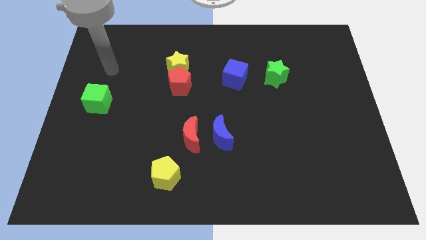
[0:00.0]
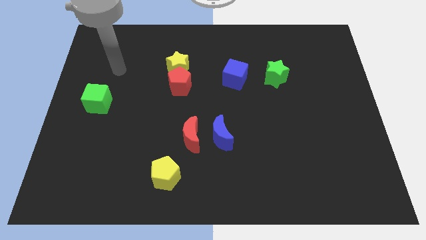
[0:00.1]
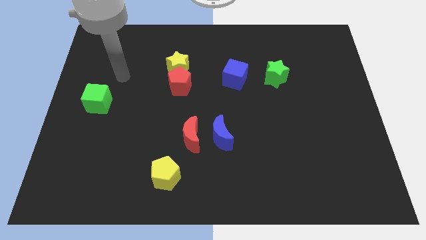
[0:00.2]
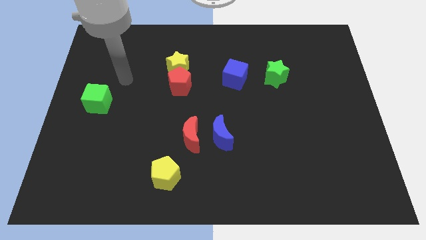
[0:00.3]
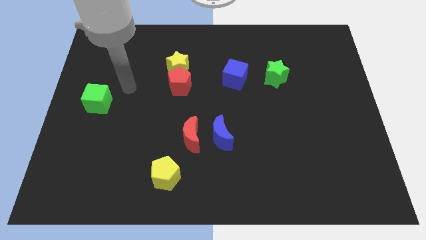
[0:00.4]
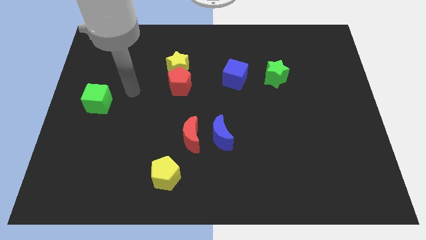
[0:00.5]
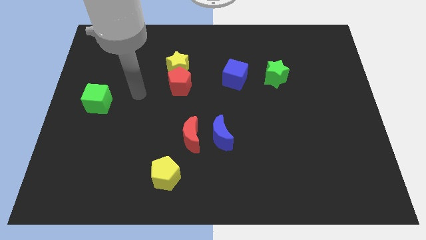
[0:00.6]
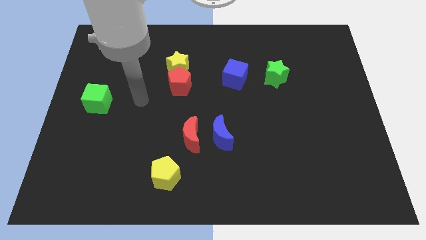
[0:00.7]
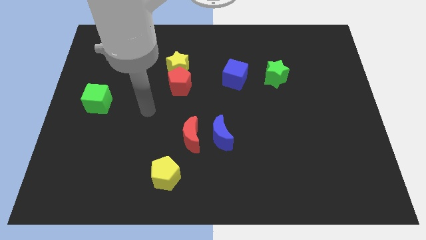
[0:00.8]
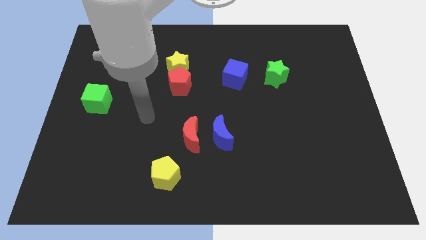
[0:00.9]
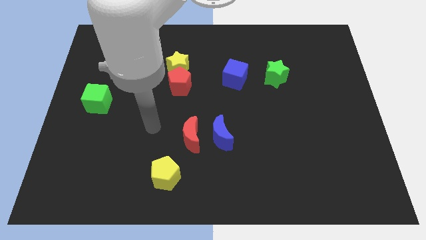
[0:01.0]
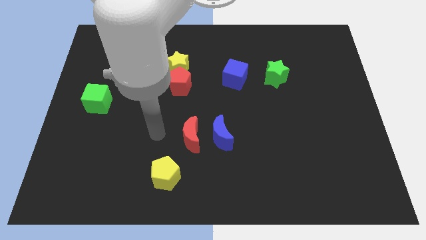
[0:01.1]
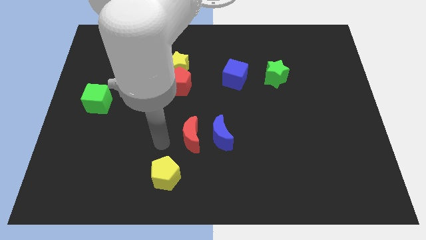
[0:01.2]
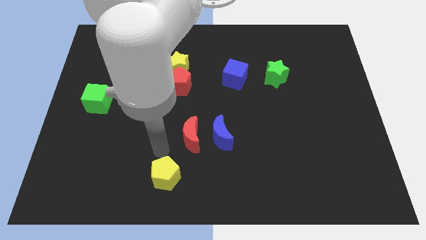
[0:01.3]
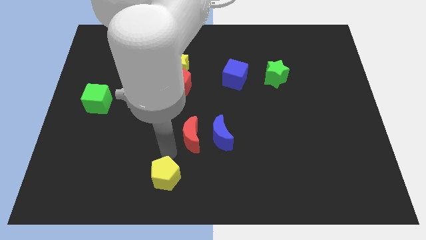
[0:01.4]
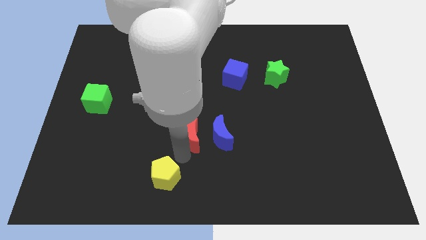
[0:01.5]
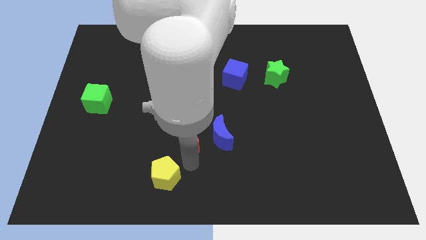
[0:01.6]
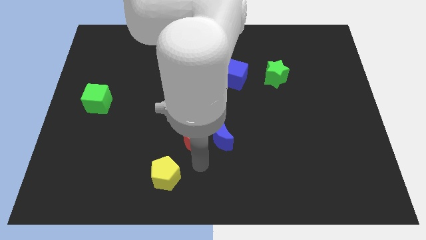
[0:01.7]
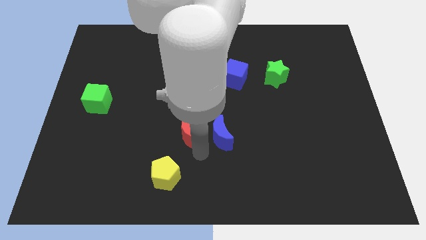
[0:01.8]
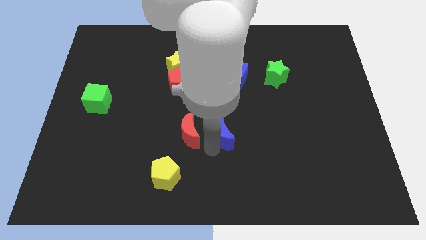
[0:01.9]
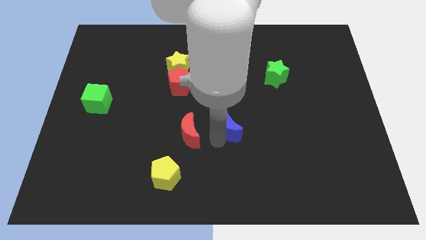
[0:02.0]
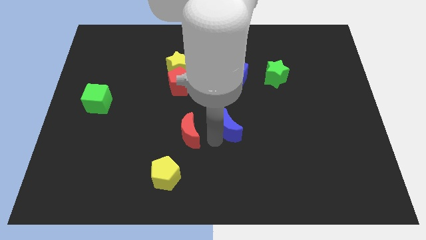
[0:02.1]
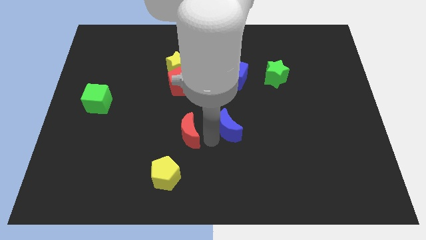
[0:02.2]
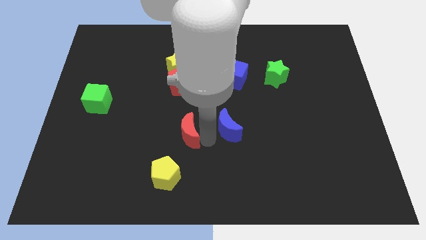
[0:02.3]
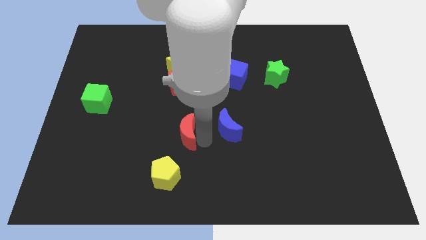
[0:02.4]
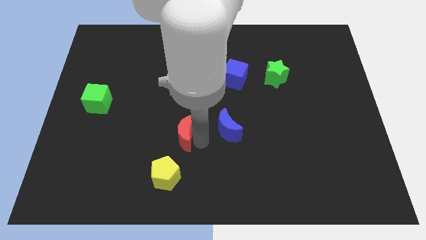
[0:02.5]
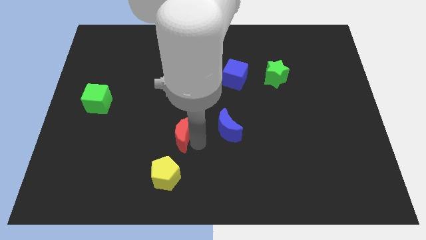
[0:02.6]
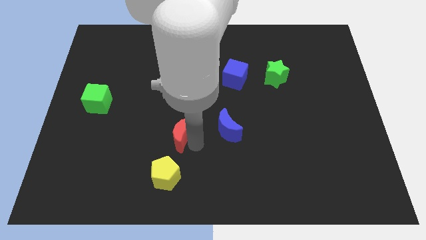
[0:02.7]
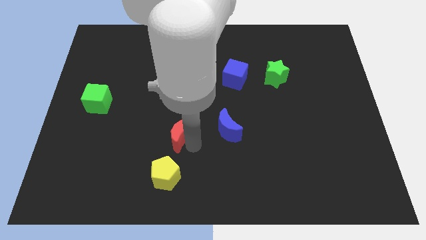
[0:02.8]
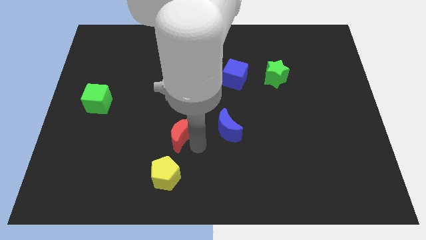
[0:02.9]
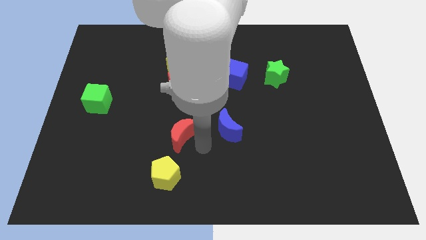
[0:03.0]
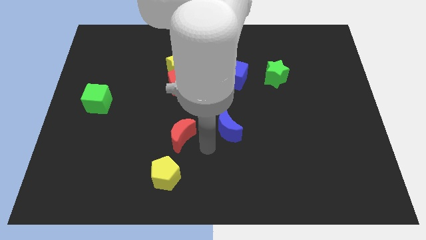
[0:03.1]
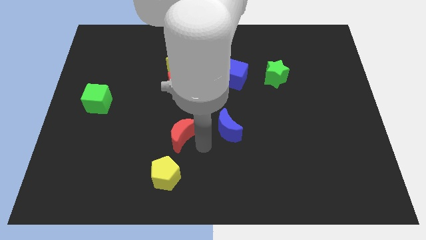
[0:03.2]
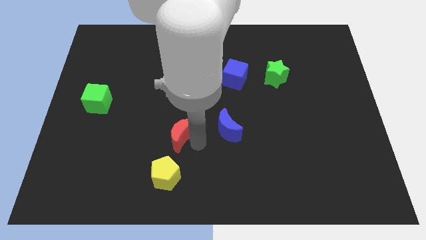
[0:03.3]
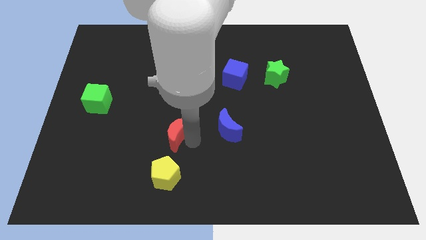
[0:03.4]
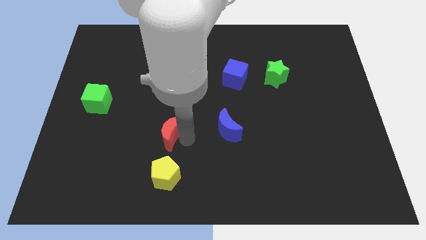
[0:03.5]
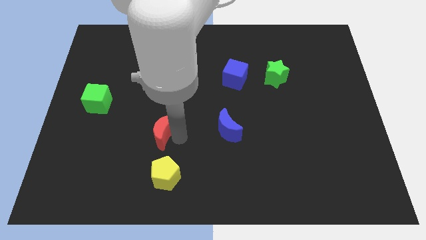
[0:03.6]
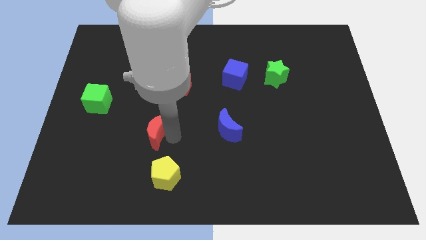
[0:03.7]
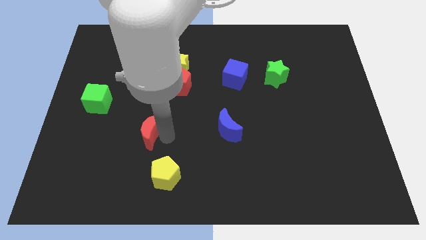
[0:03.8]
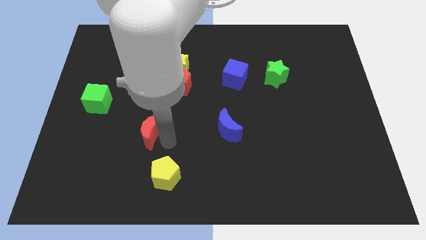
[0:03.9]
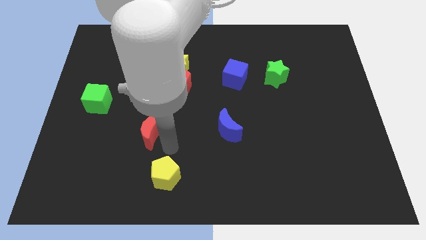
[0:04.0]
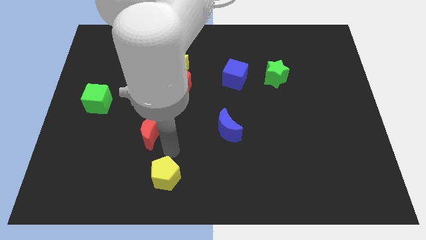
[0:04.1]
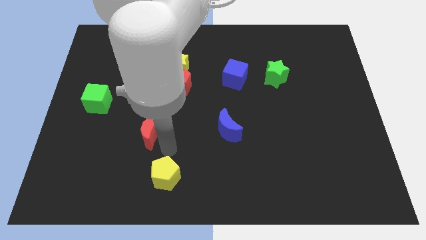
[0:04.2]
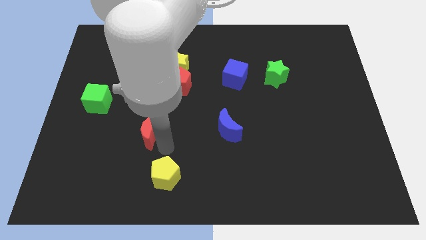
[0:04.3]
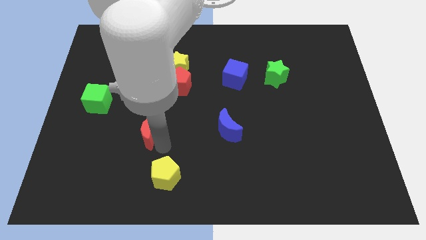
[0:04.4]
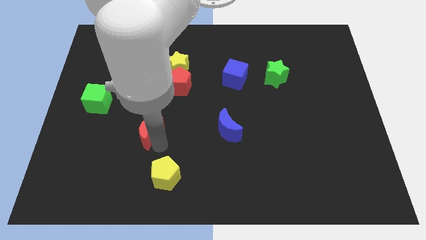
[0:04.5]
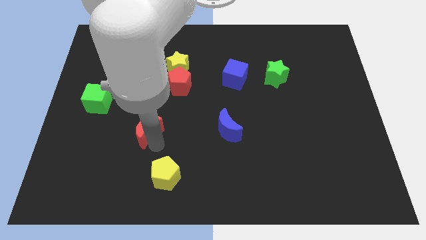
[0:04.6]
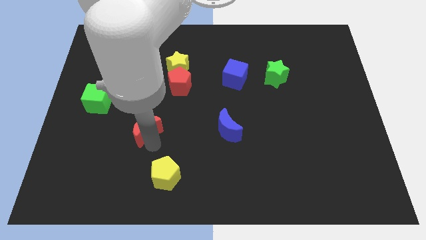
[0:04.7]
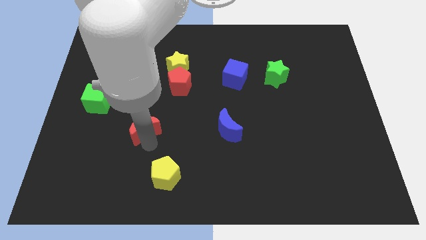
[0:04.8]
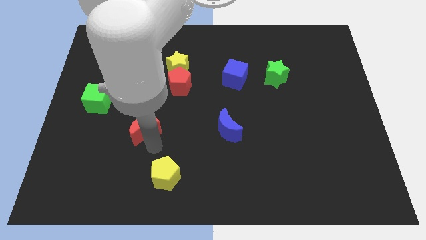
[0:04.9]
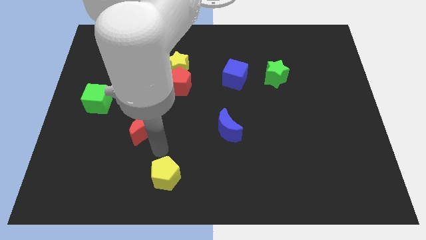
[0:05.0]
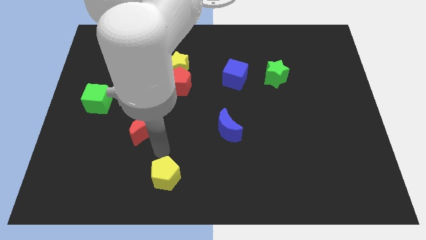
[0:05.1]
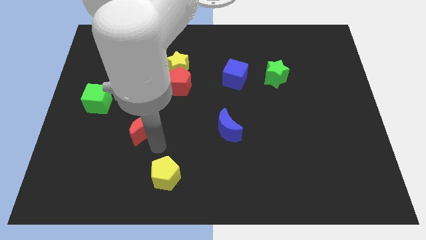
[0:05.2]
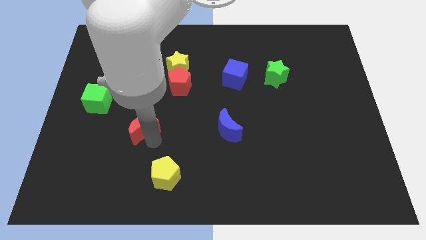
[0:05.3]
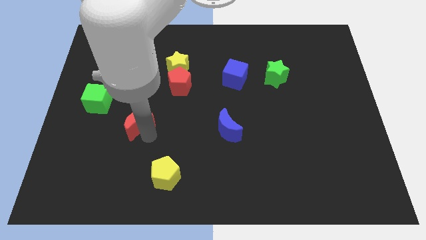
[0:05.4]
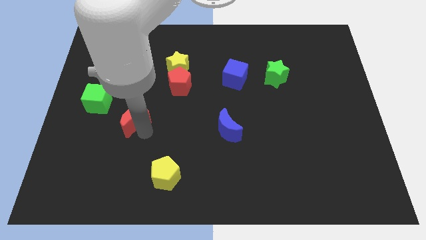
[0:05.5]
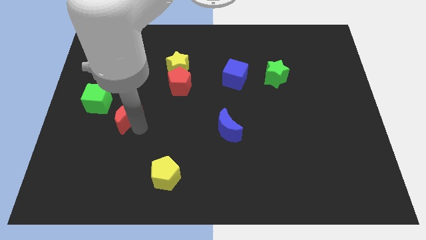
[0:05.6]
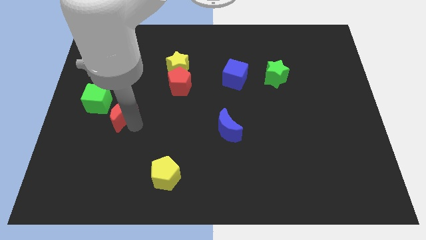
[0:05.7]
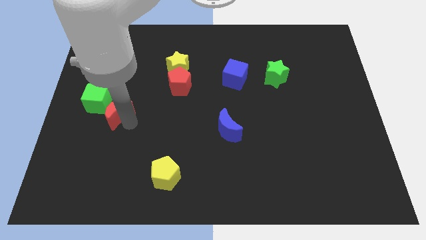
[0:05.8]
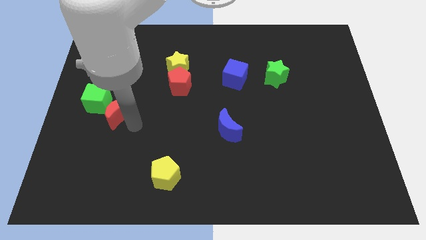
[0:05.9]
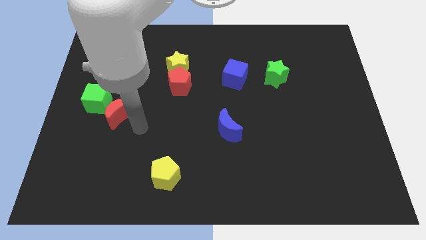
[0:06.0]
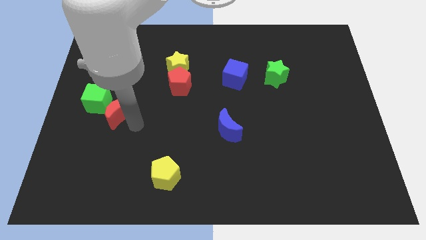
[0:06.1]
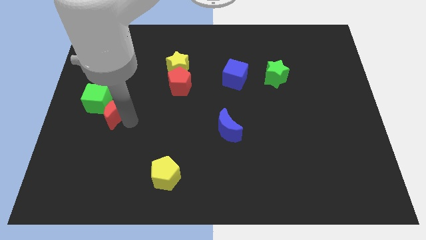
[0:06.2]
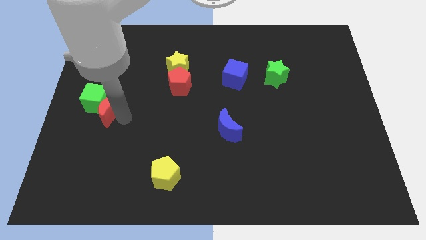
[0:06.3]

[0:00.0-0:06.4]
push the red moon close to the green cube

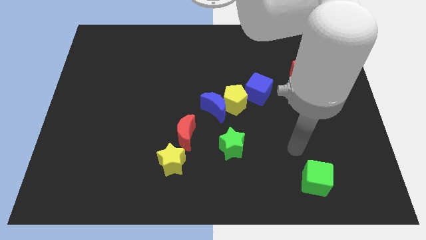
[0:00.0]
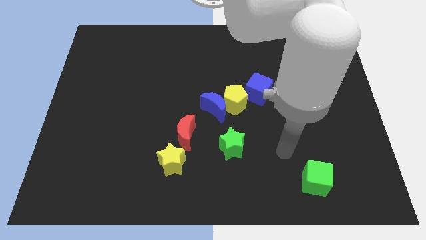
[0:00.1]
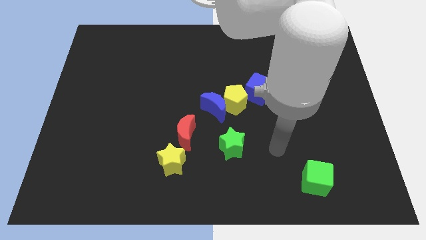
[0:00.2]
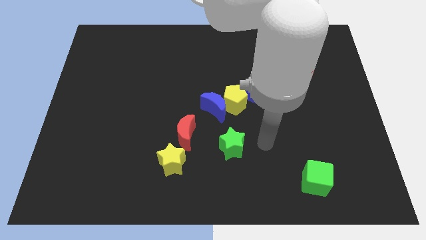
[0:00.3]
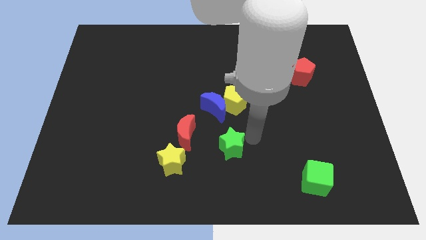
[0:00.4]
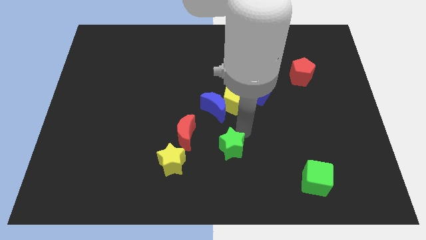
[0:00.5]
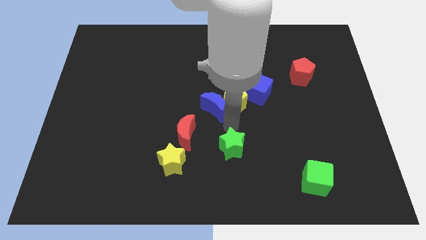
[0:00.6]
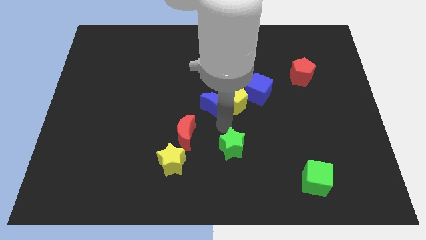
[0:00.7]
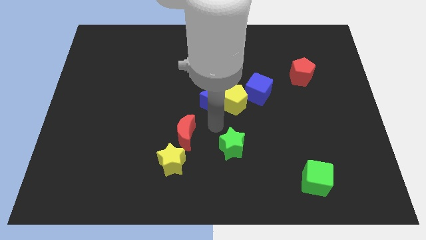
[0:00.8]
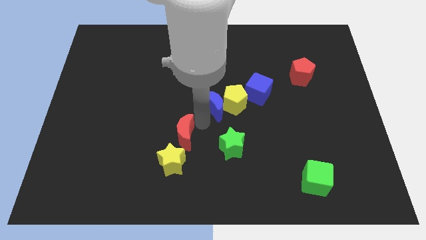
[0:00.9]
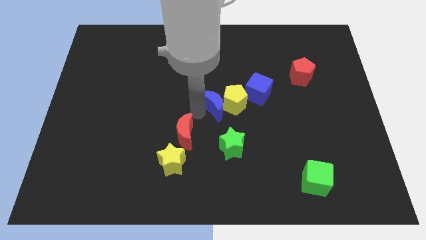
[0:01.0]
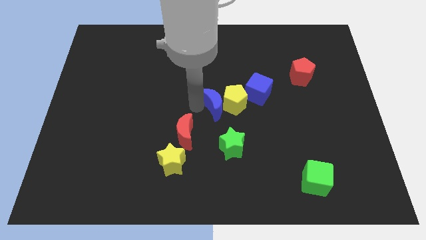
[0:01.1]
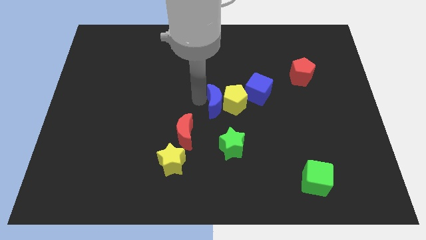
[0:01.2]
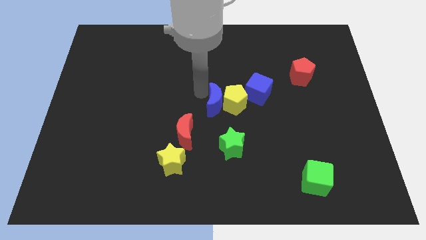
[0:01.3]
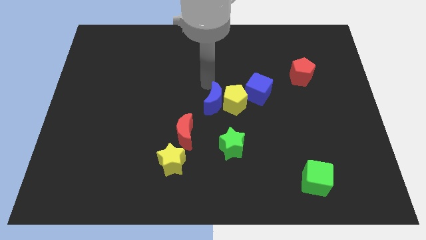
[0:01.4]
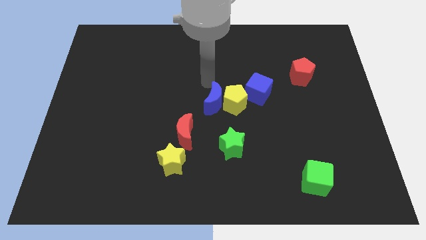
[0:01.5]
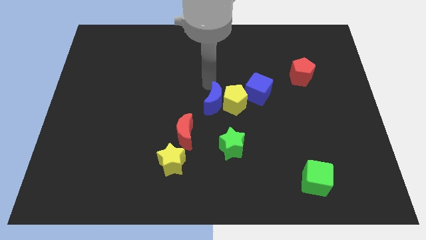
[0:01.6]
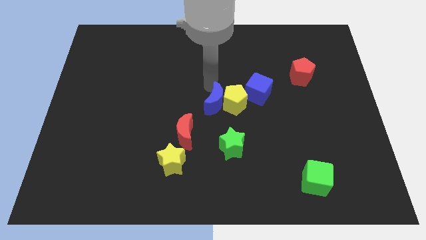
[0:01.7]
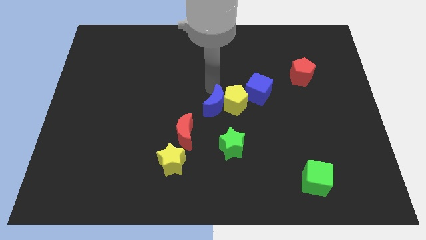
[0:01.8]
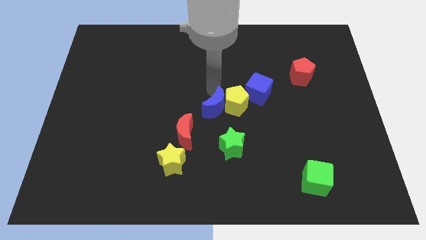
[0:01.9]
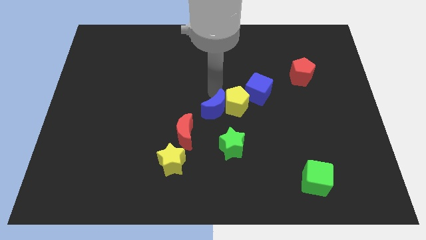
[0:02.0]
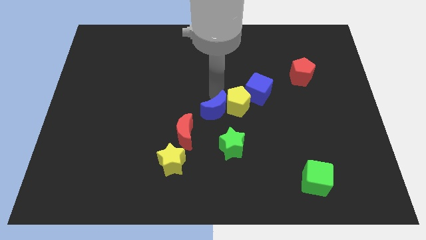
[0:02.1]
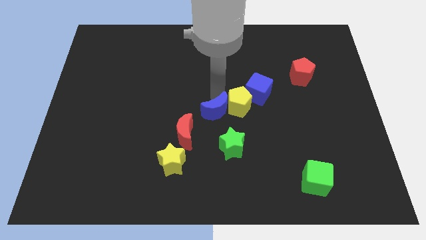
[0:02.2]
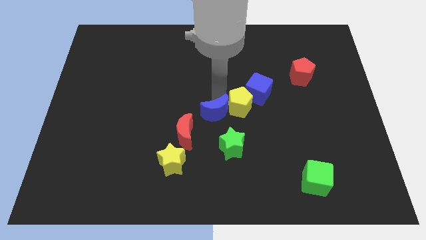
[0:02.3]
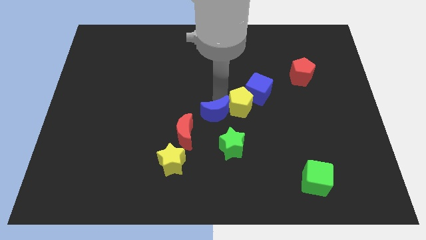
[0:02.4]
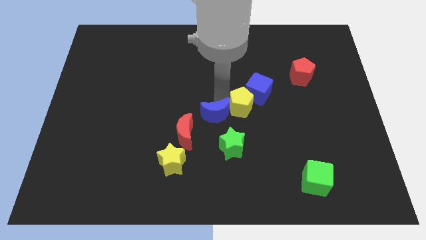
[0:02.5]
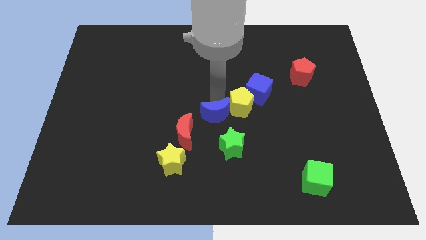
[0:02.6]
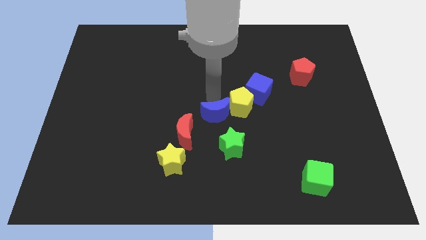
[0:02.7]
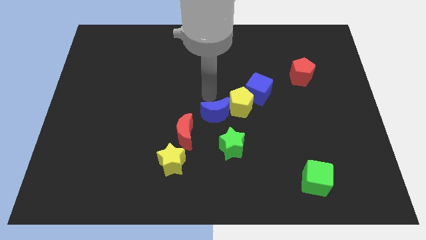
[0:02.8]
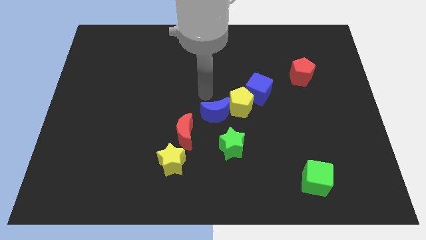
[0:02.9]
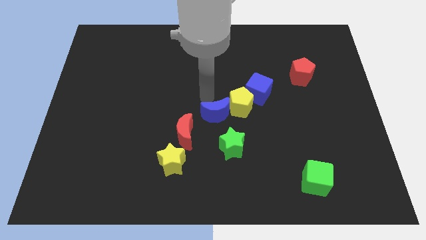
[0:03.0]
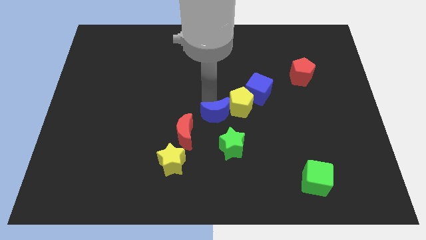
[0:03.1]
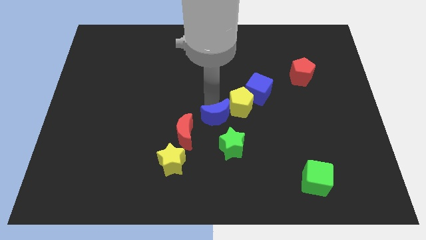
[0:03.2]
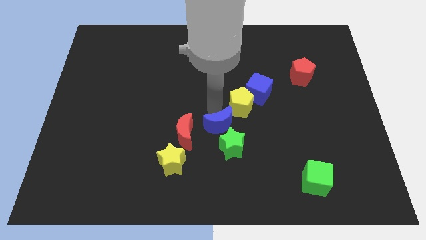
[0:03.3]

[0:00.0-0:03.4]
put the blue moon close to the green star
